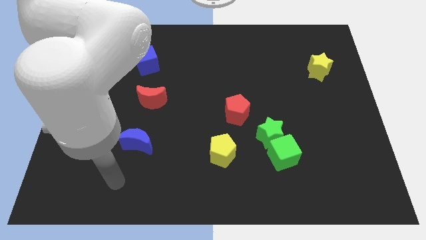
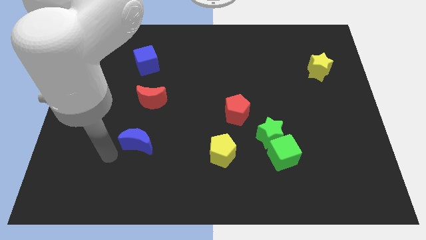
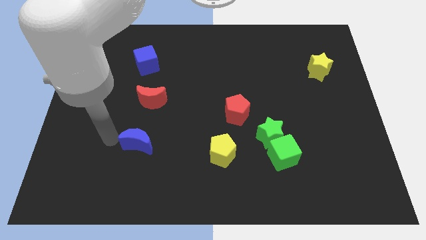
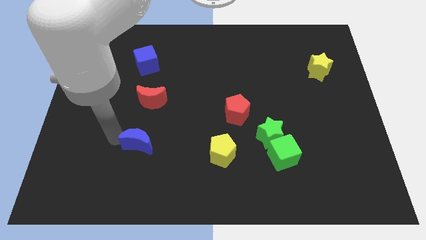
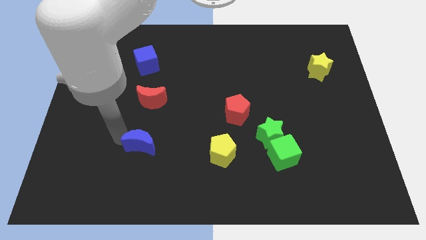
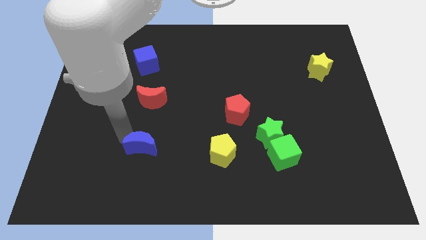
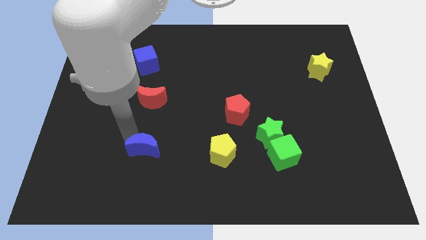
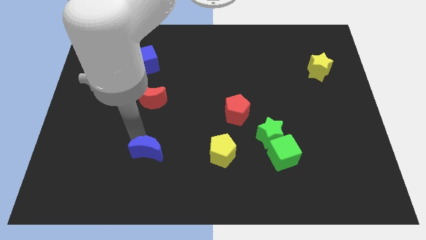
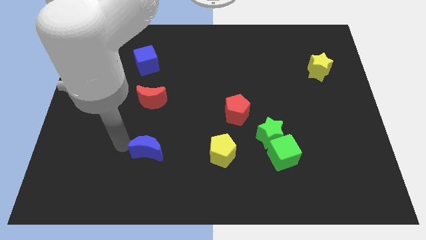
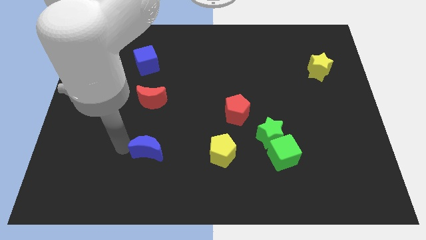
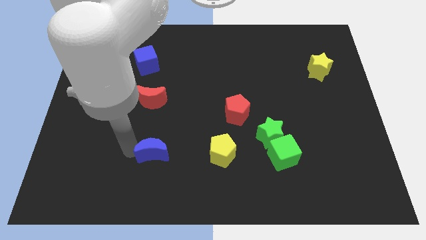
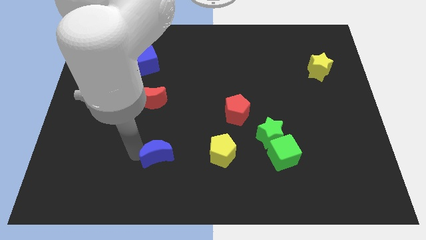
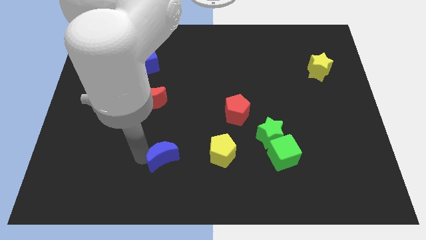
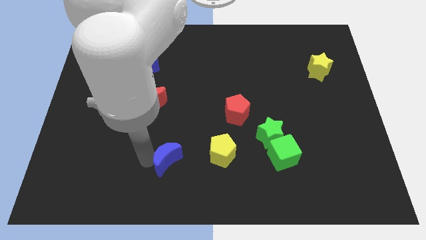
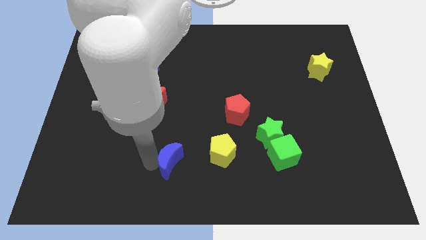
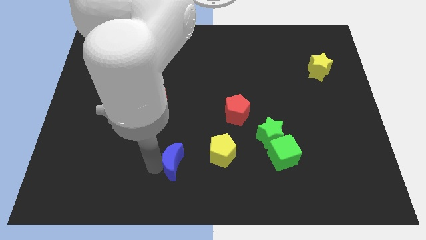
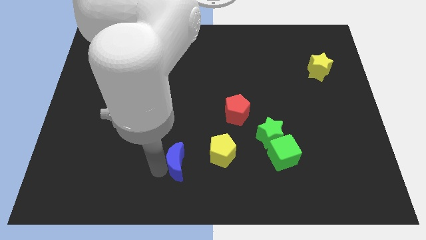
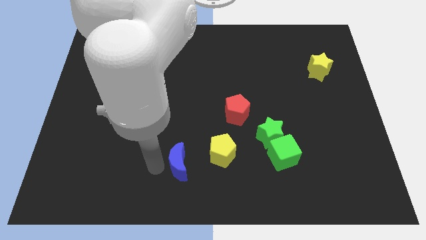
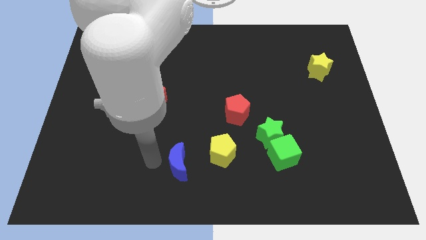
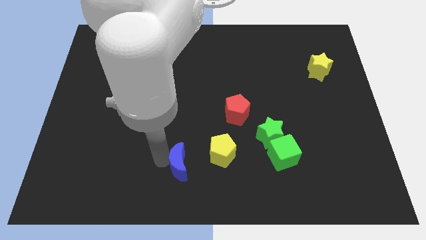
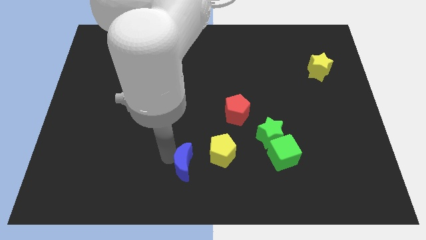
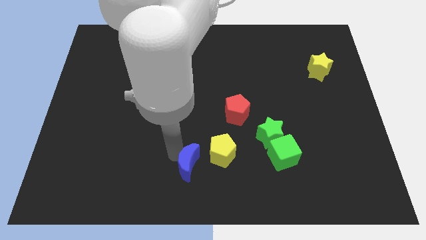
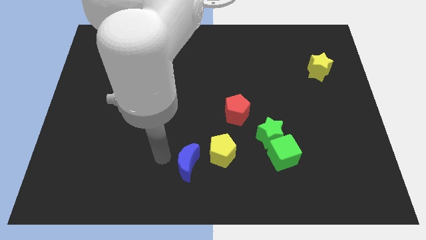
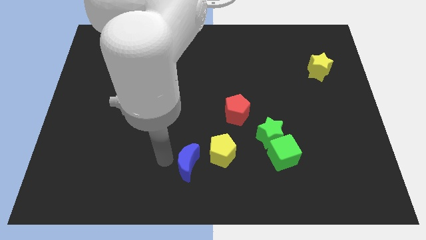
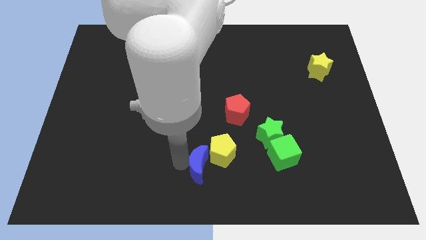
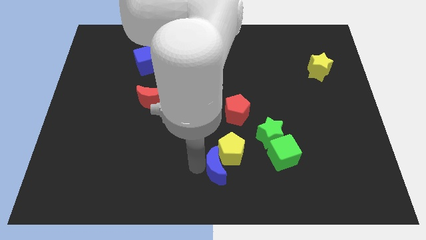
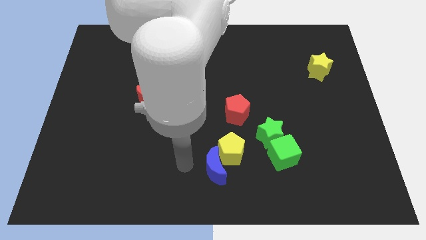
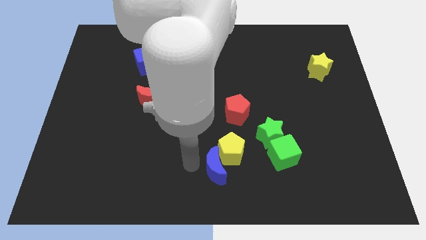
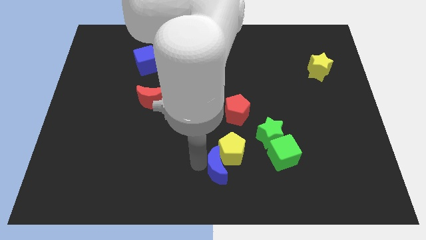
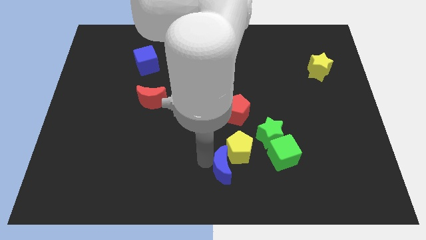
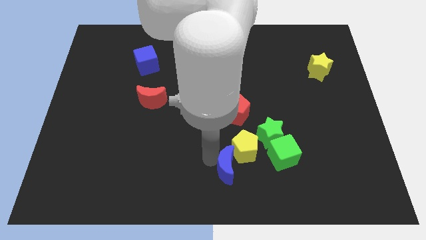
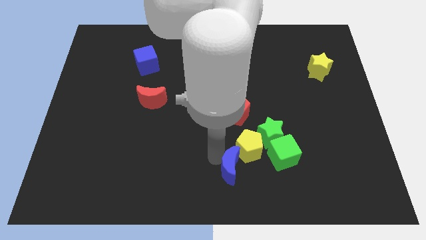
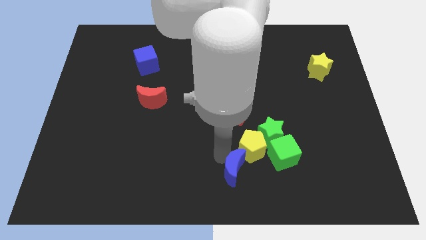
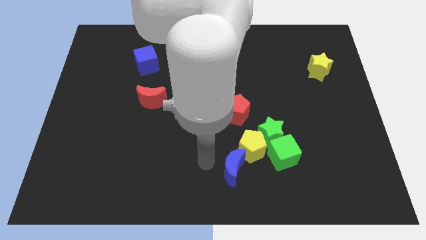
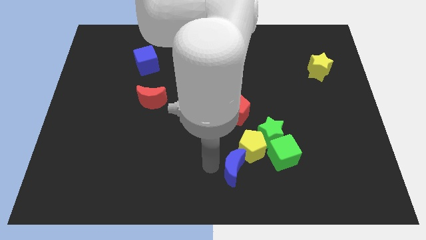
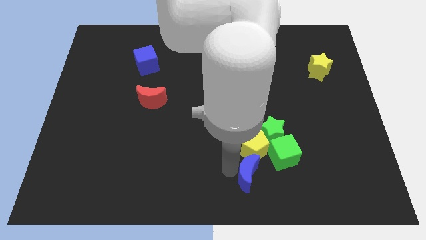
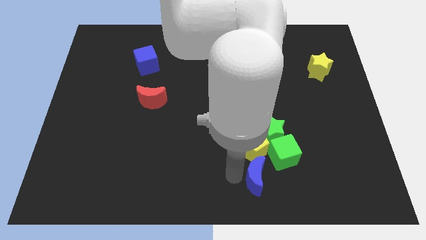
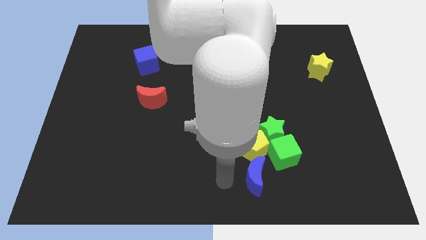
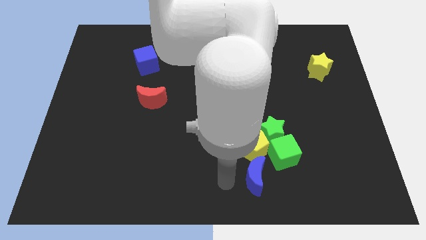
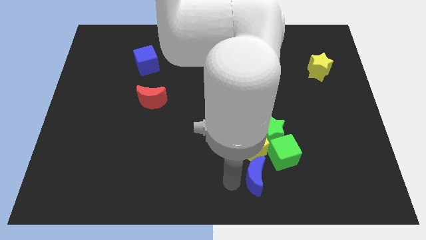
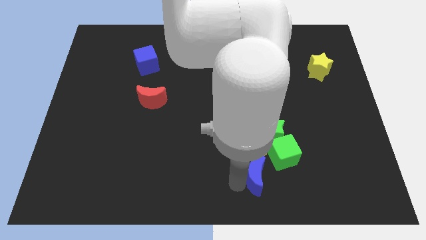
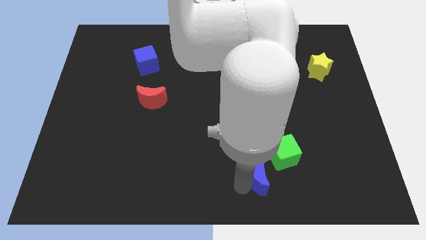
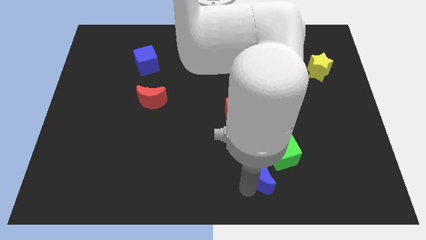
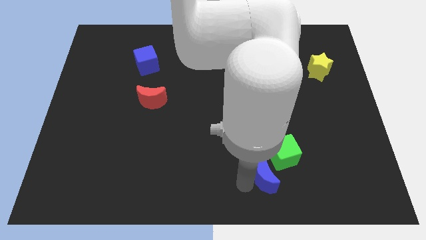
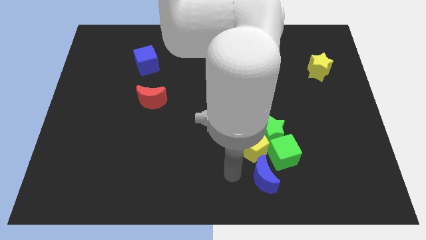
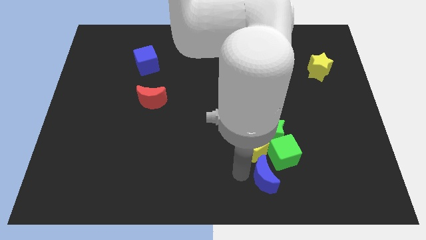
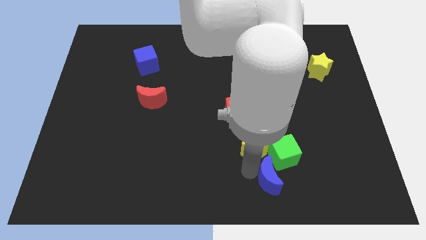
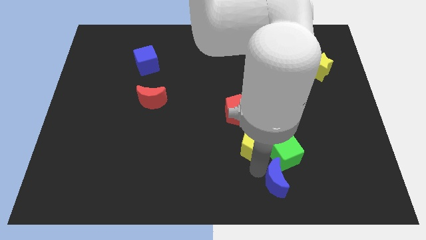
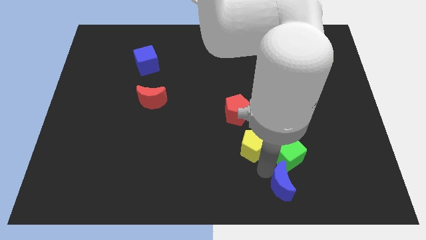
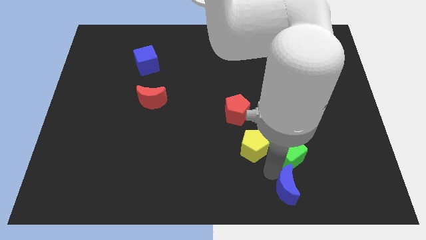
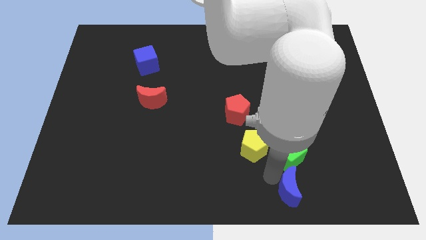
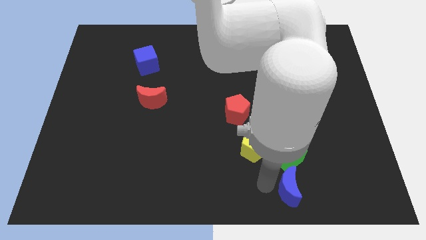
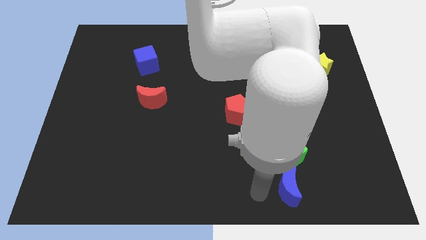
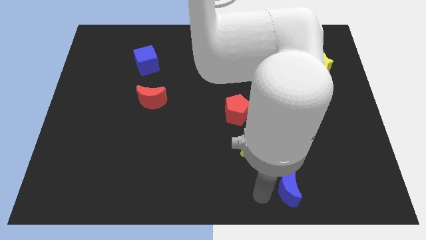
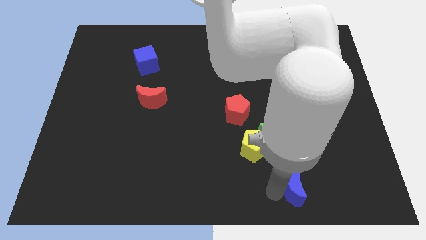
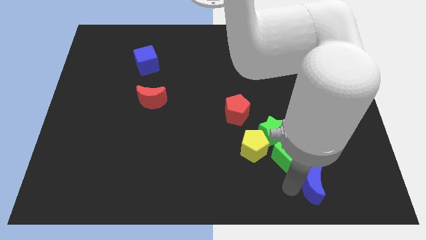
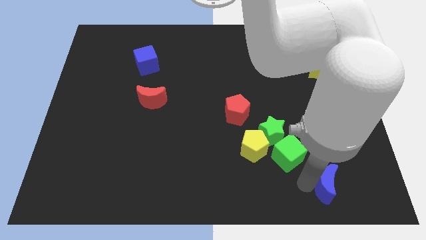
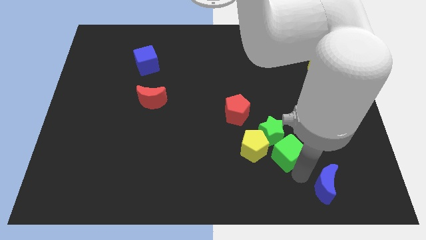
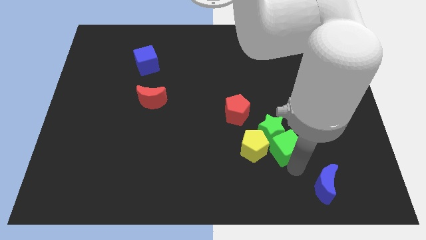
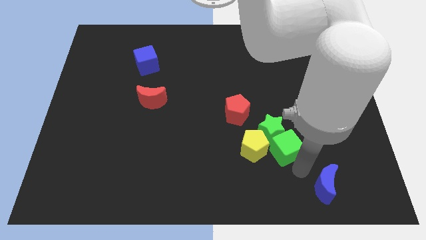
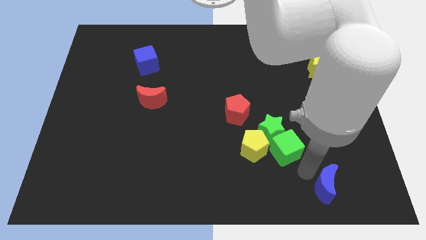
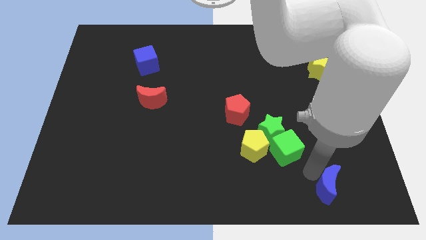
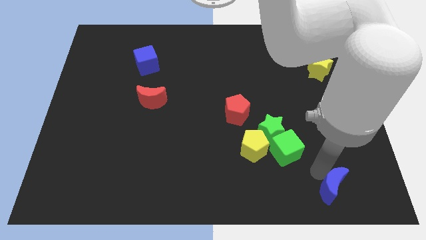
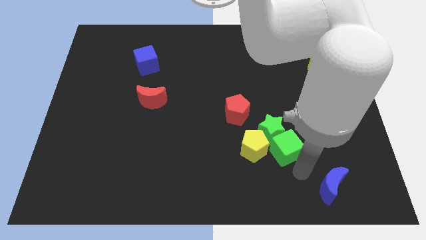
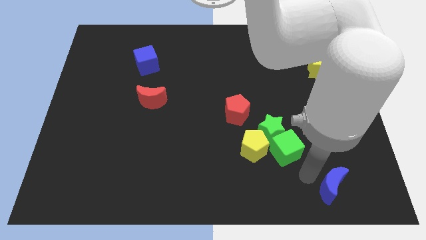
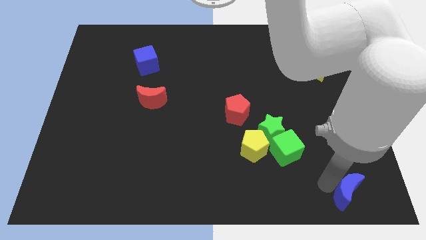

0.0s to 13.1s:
push the blue moon to the lower right corner

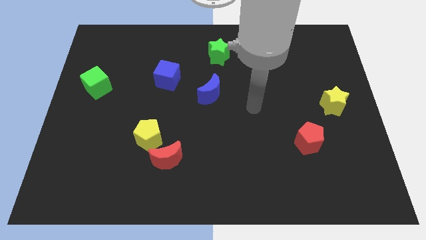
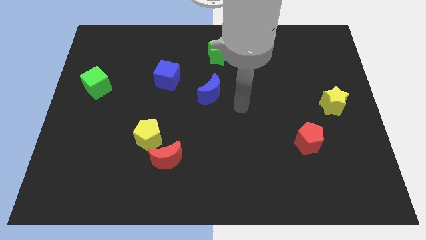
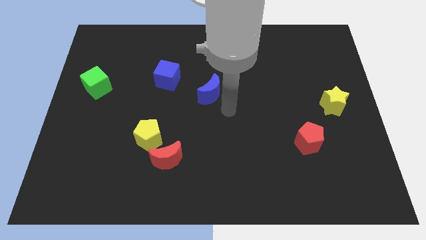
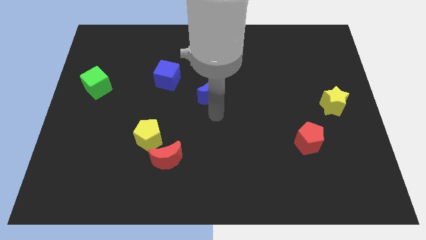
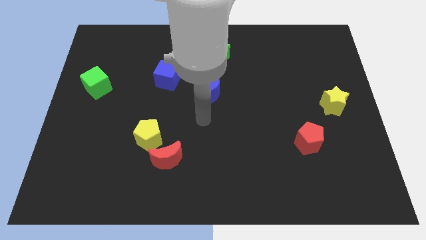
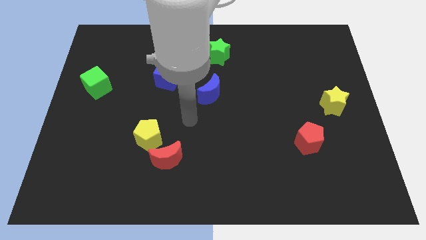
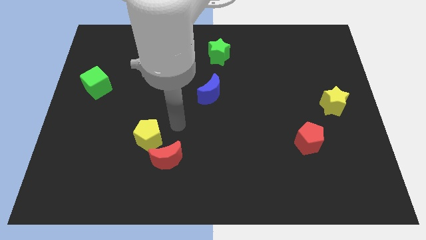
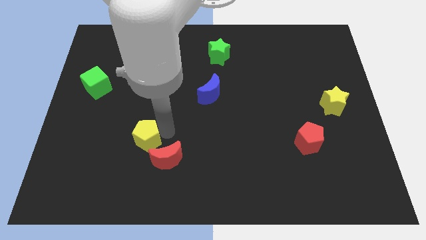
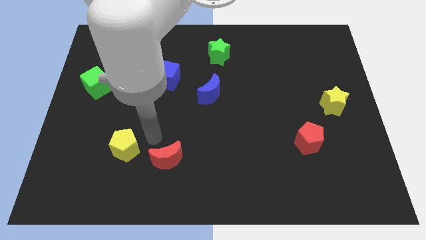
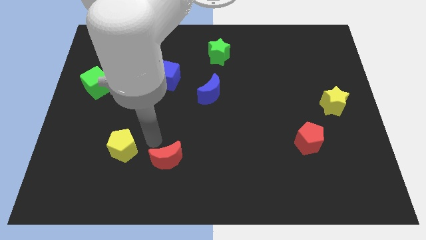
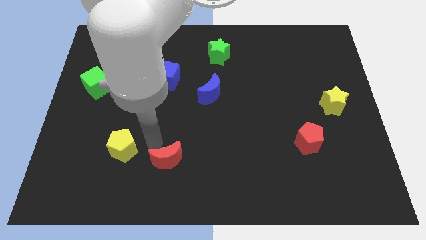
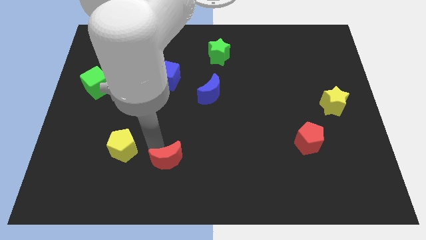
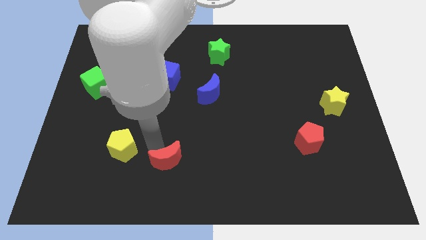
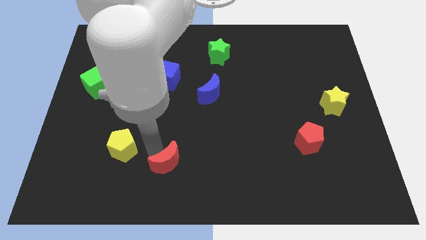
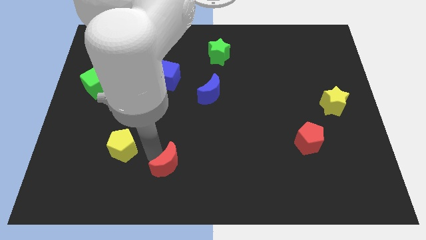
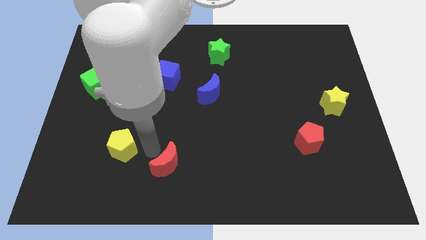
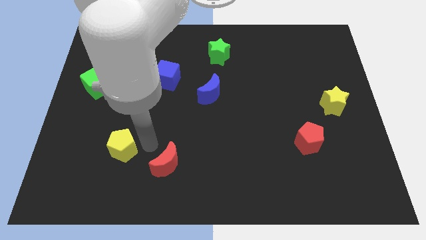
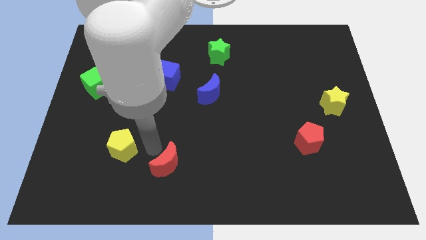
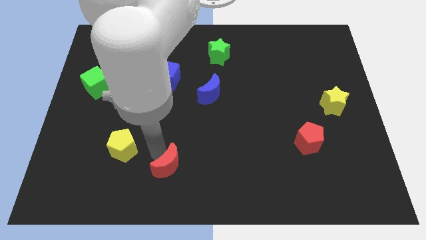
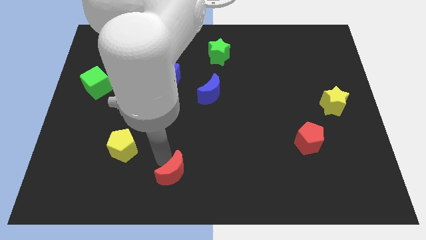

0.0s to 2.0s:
move the red moon to the bottom side
